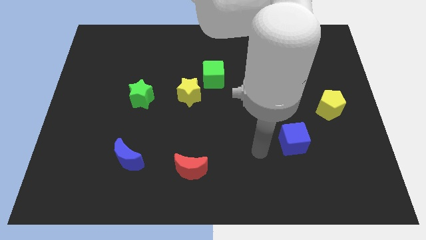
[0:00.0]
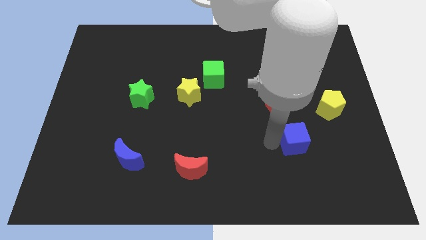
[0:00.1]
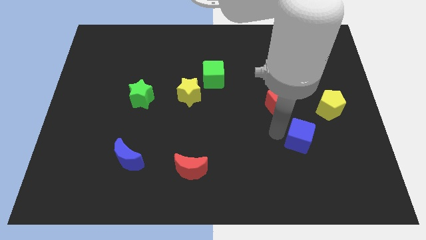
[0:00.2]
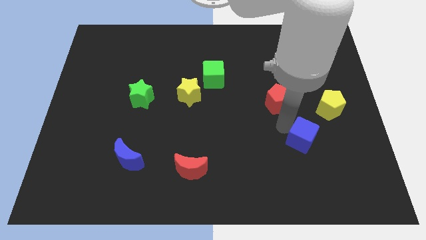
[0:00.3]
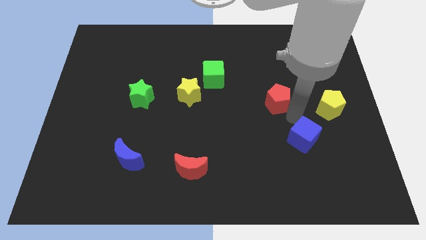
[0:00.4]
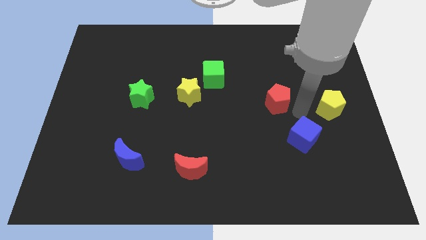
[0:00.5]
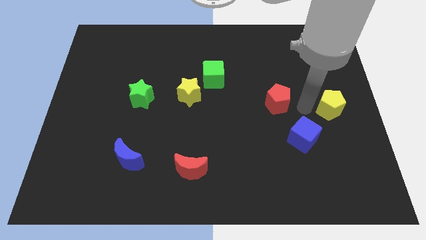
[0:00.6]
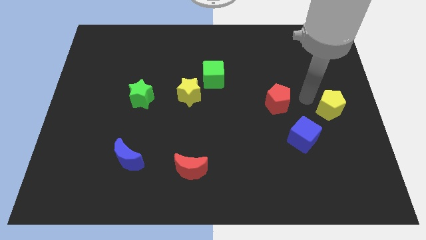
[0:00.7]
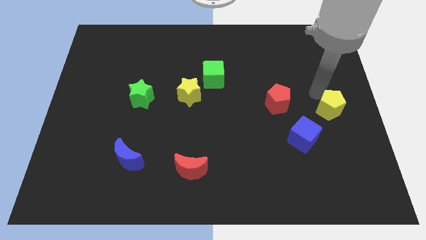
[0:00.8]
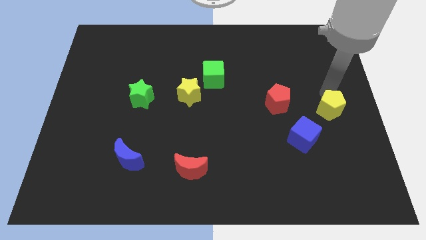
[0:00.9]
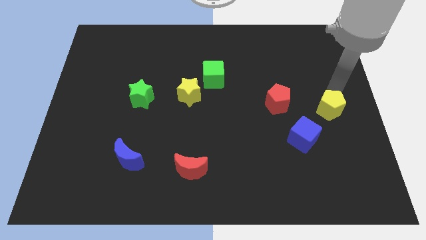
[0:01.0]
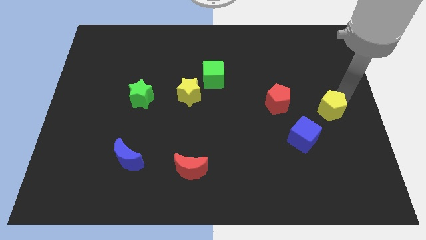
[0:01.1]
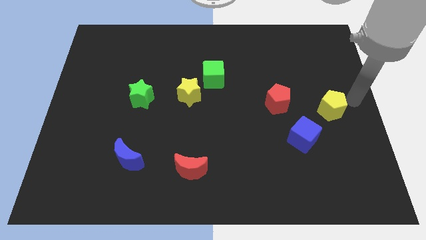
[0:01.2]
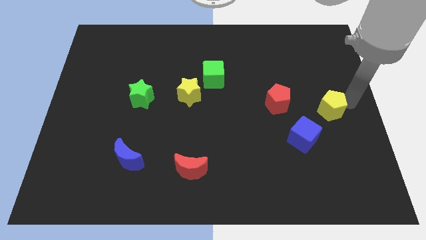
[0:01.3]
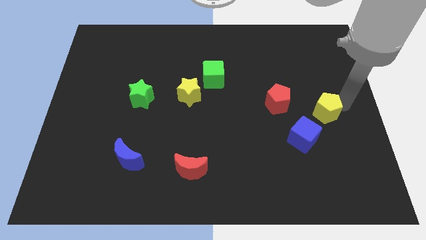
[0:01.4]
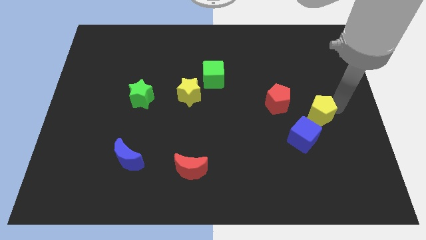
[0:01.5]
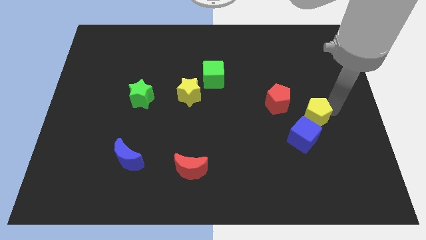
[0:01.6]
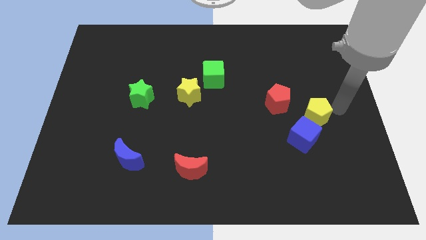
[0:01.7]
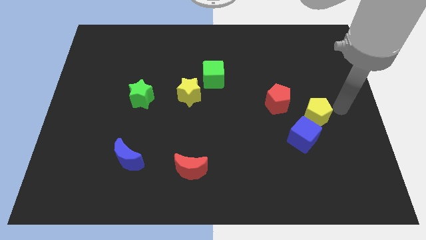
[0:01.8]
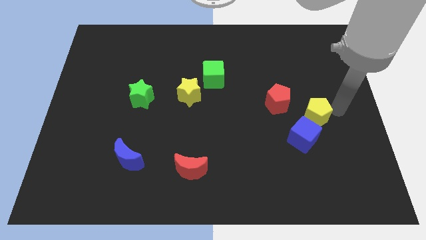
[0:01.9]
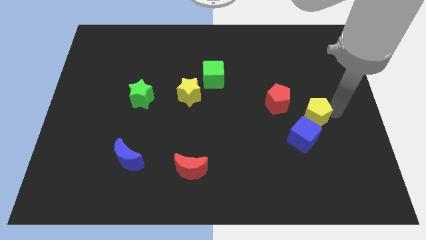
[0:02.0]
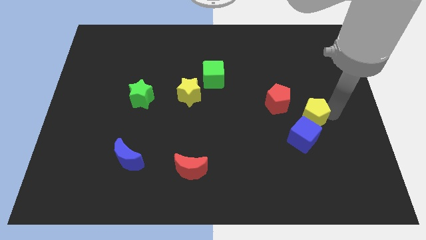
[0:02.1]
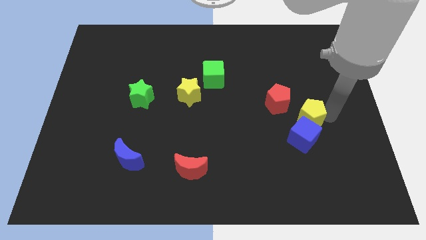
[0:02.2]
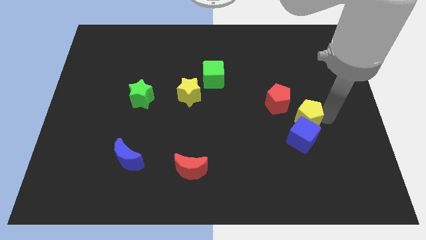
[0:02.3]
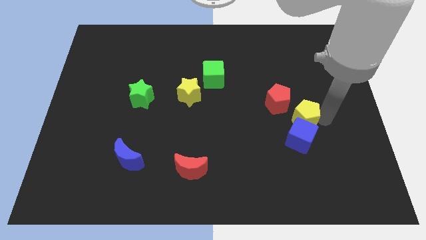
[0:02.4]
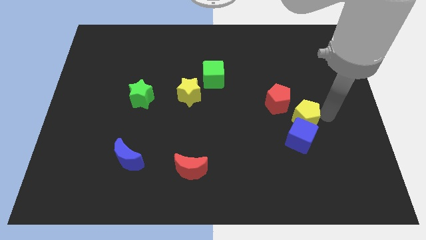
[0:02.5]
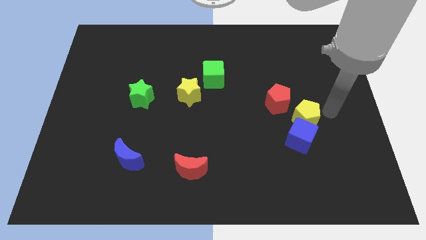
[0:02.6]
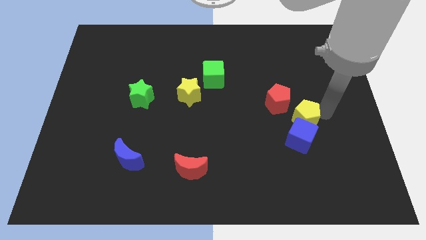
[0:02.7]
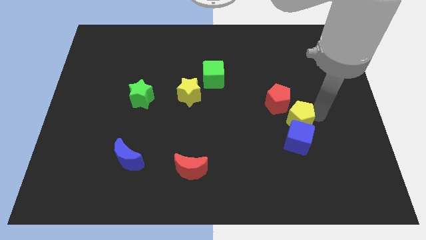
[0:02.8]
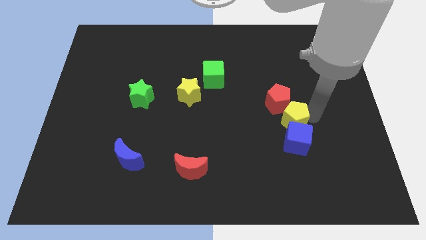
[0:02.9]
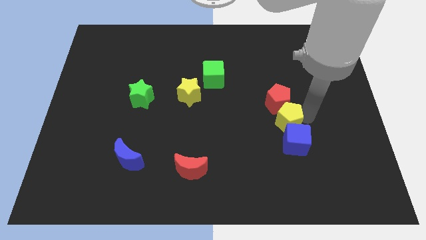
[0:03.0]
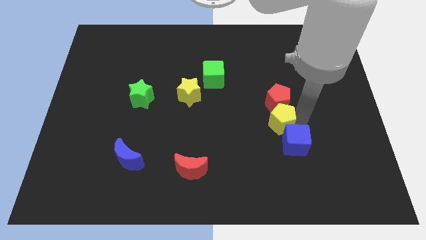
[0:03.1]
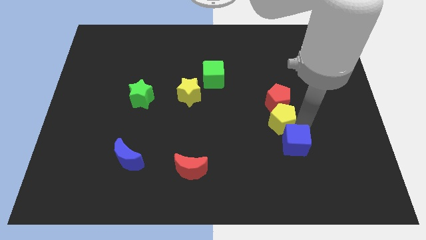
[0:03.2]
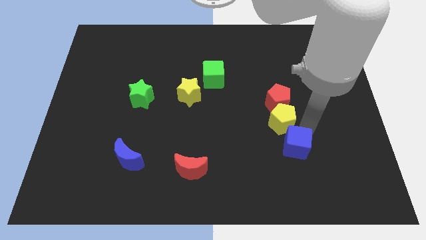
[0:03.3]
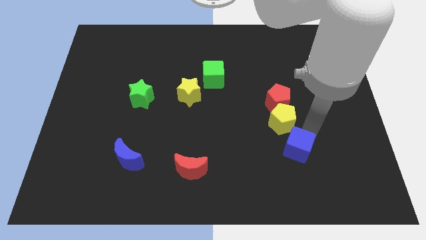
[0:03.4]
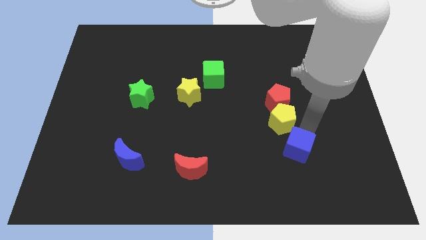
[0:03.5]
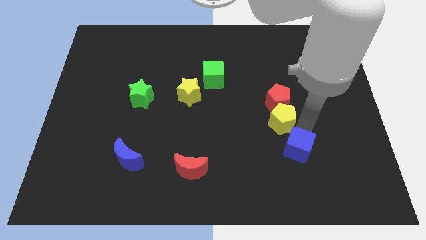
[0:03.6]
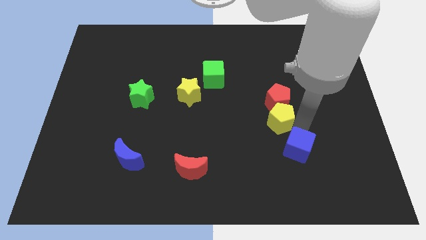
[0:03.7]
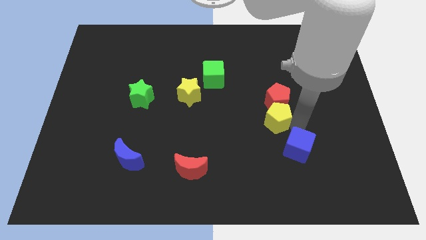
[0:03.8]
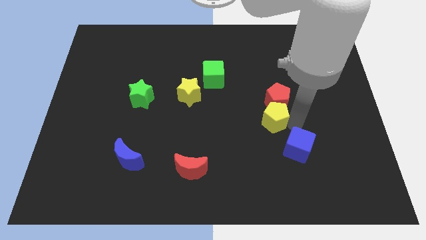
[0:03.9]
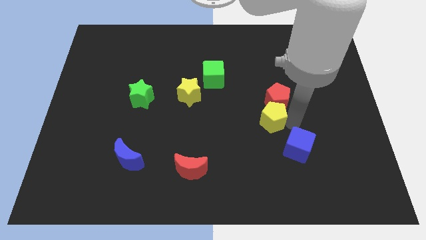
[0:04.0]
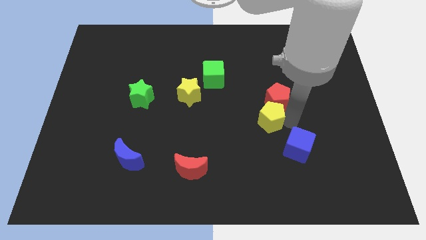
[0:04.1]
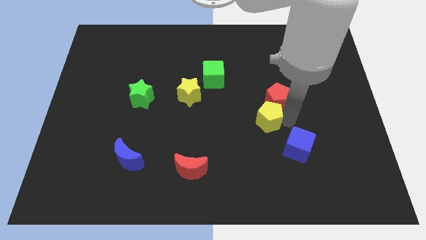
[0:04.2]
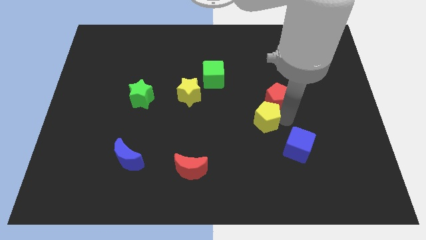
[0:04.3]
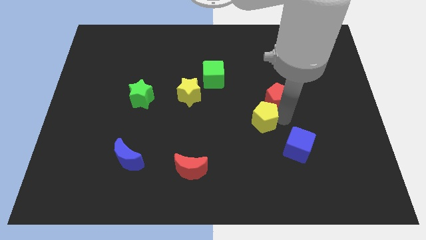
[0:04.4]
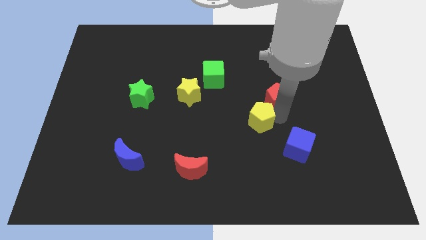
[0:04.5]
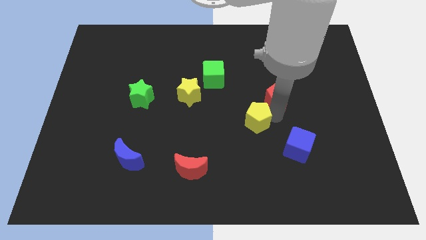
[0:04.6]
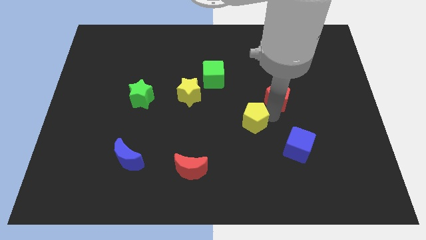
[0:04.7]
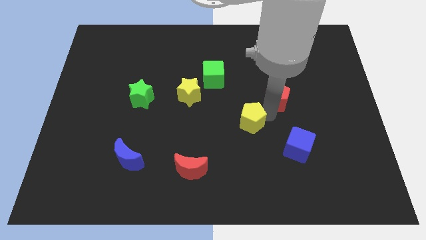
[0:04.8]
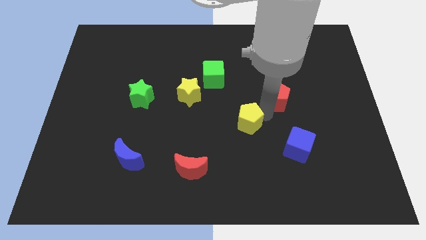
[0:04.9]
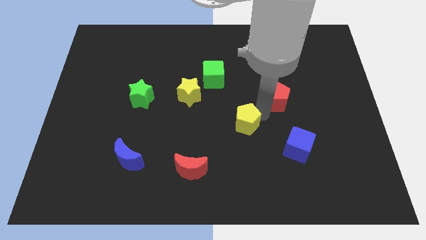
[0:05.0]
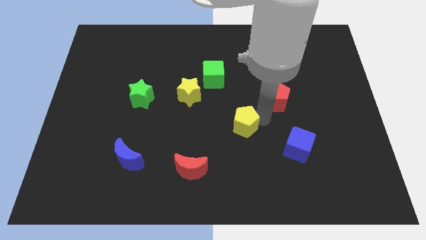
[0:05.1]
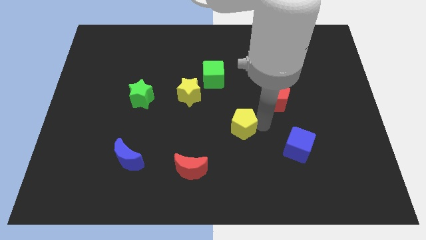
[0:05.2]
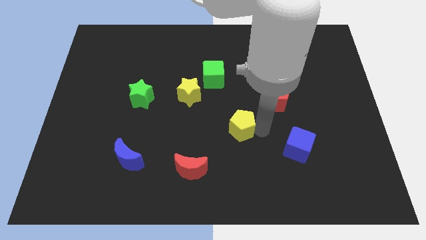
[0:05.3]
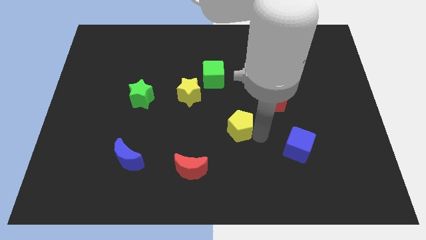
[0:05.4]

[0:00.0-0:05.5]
move the yellow pentagon left

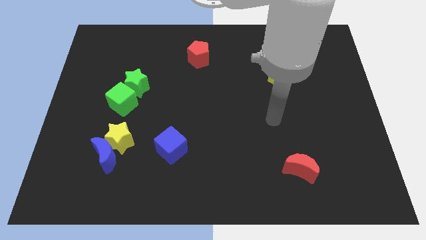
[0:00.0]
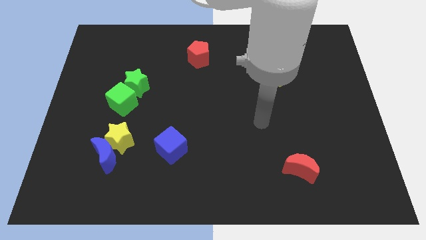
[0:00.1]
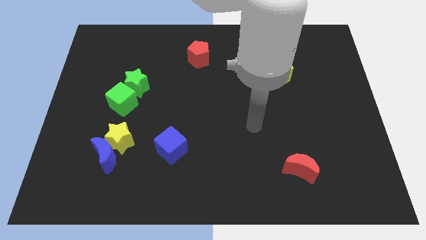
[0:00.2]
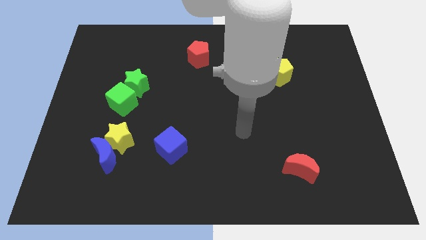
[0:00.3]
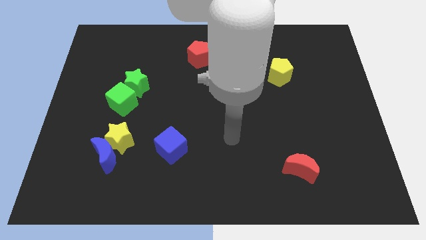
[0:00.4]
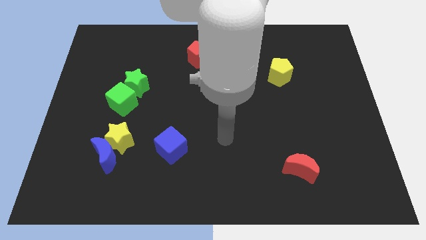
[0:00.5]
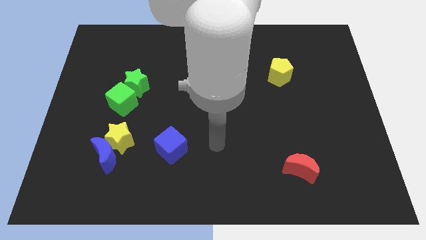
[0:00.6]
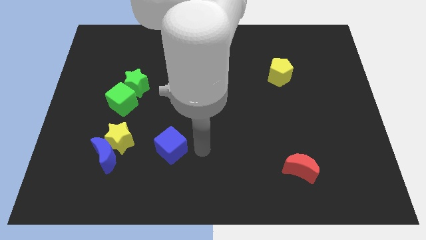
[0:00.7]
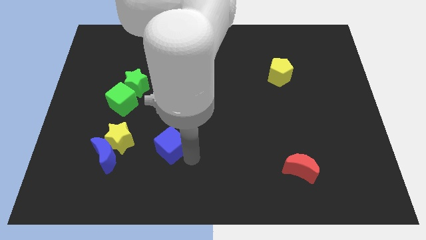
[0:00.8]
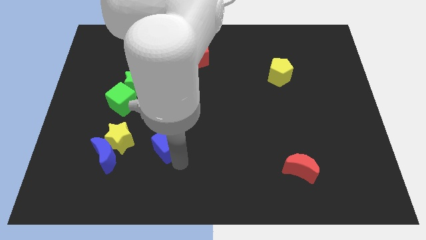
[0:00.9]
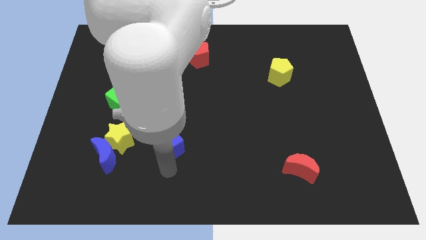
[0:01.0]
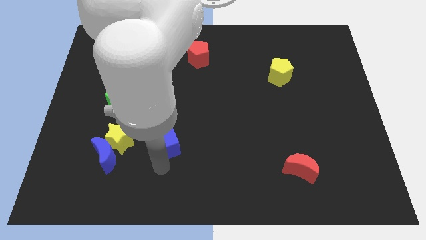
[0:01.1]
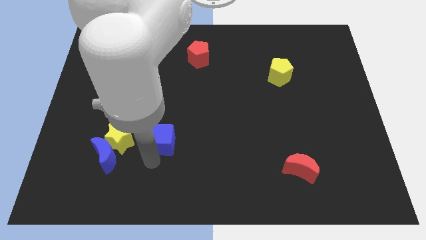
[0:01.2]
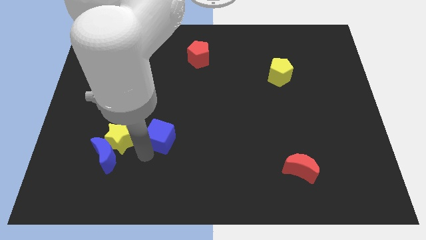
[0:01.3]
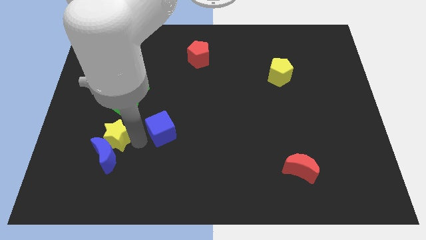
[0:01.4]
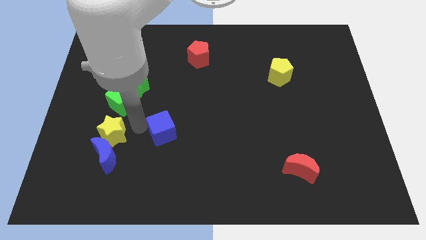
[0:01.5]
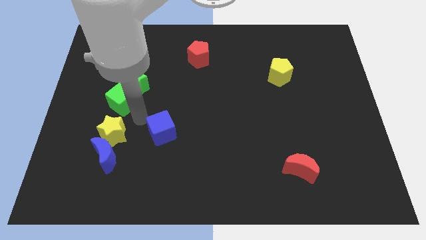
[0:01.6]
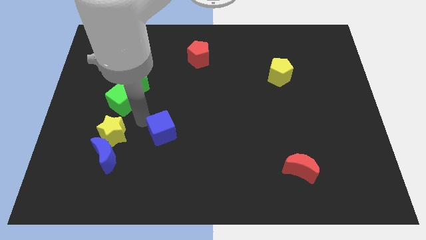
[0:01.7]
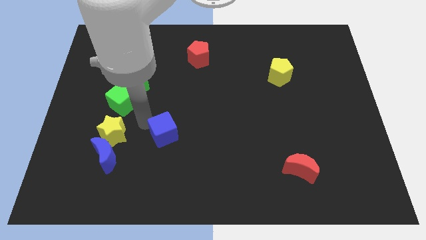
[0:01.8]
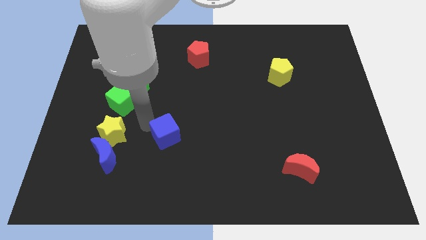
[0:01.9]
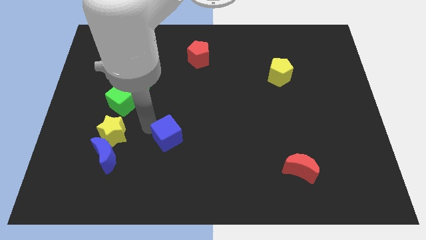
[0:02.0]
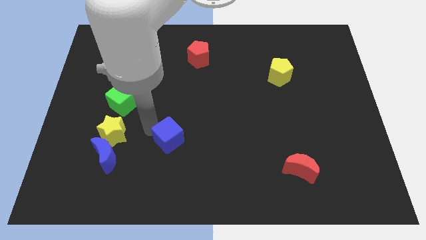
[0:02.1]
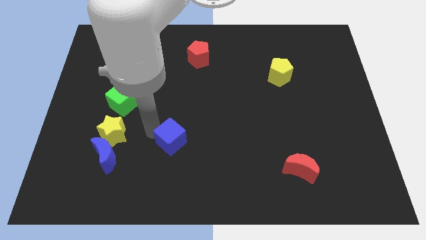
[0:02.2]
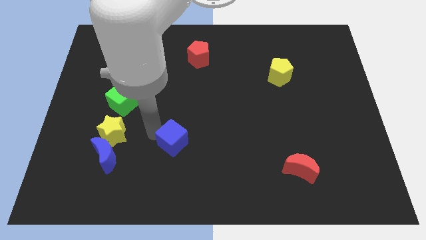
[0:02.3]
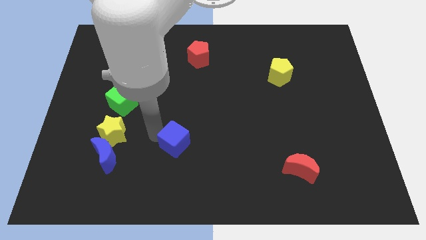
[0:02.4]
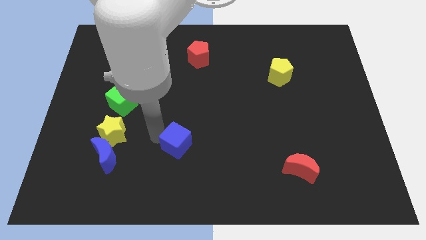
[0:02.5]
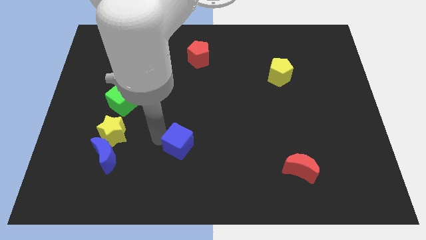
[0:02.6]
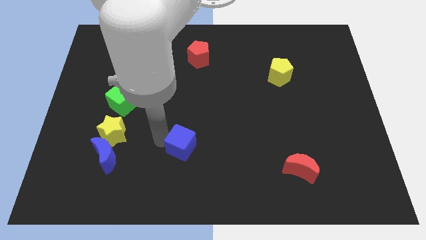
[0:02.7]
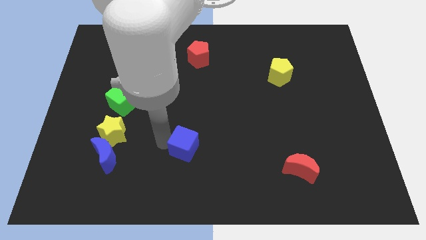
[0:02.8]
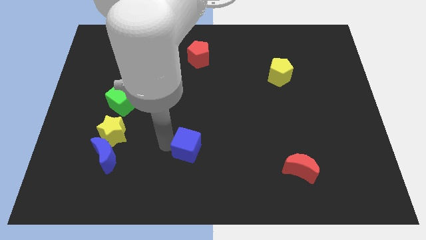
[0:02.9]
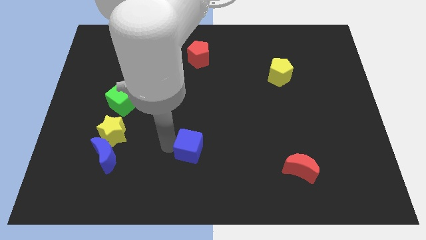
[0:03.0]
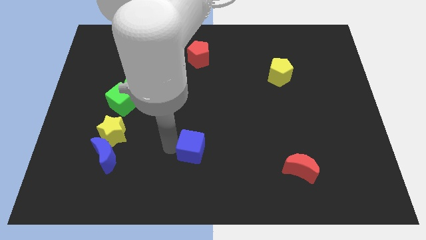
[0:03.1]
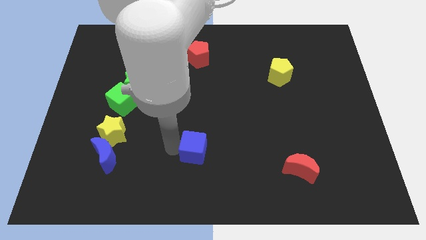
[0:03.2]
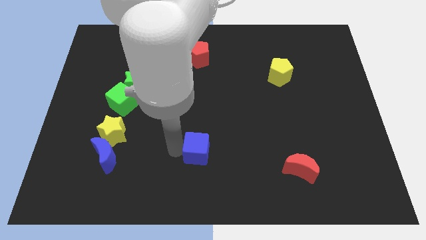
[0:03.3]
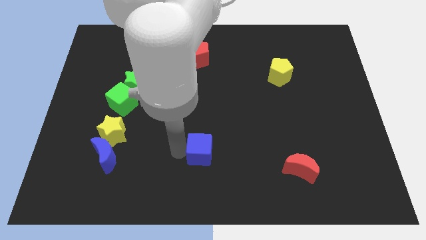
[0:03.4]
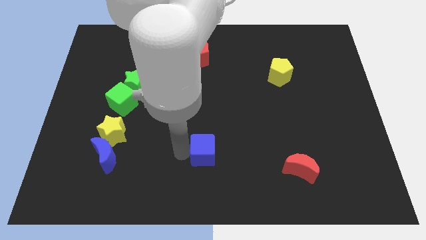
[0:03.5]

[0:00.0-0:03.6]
slightly slide the blue cube right
